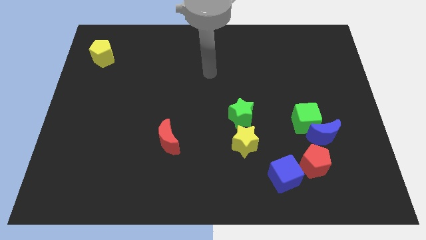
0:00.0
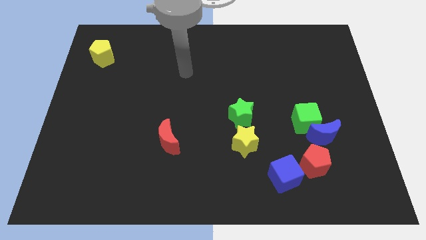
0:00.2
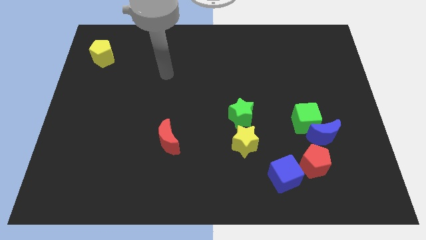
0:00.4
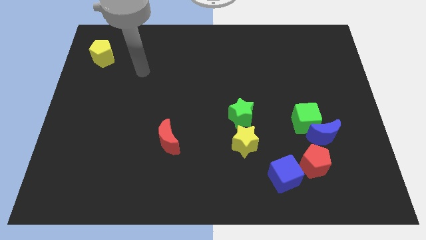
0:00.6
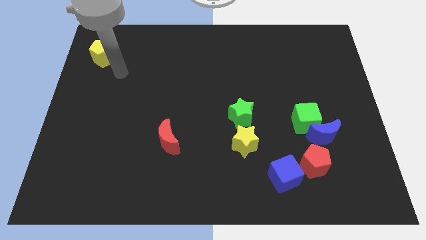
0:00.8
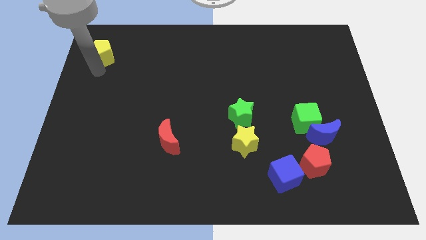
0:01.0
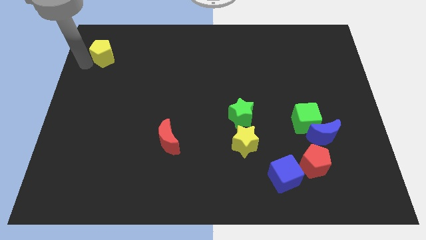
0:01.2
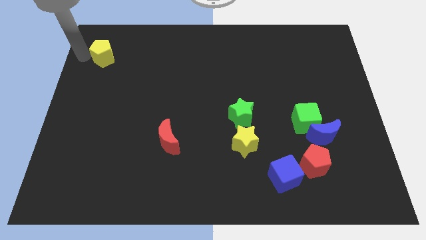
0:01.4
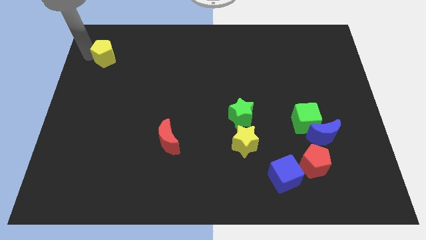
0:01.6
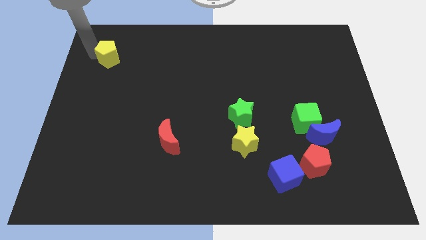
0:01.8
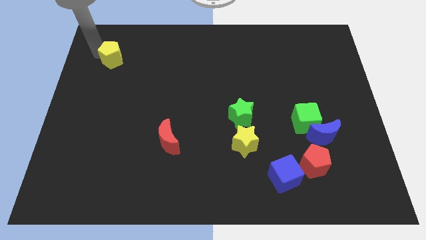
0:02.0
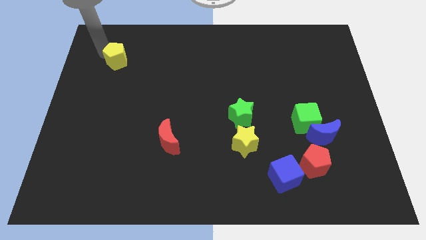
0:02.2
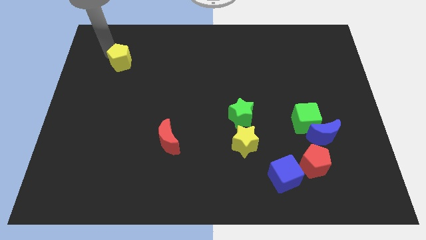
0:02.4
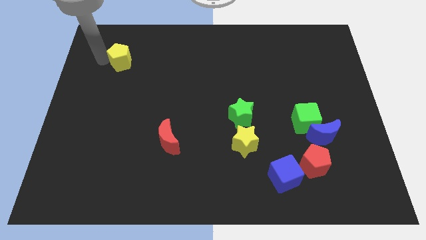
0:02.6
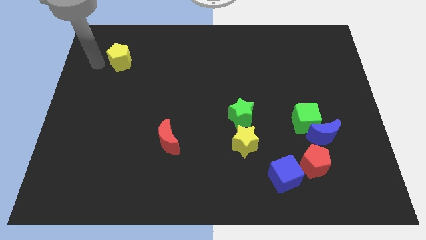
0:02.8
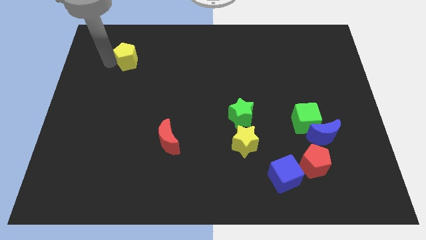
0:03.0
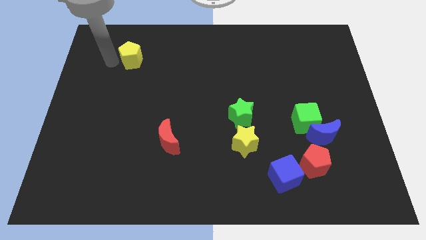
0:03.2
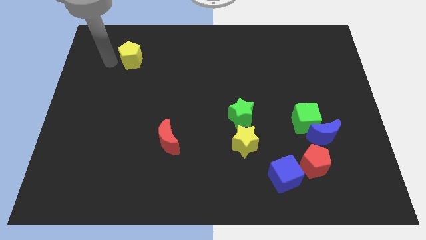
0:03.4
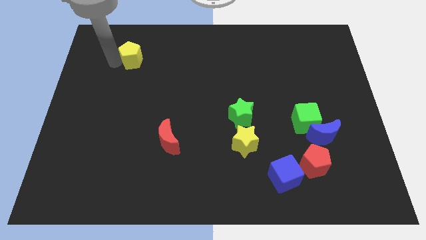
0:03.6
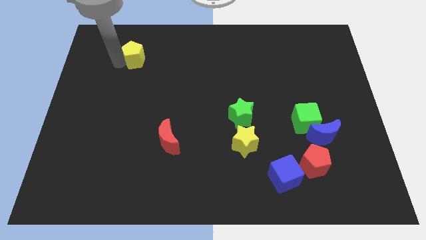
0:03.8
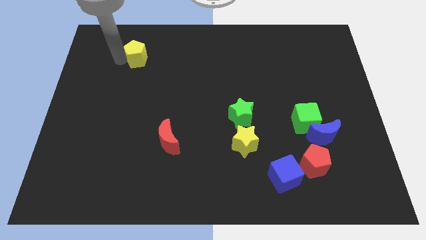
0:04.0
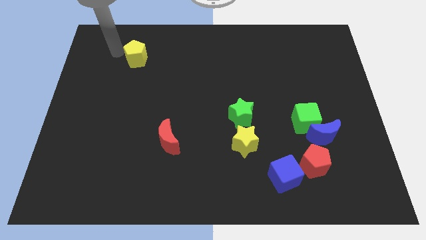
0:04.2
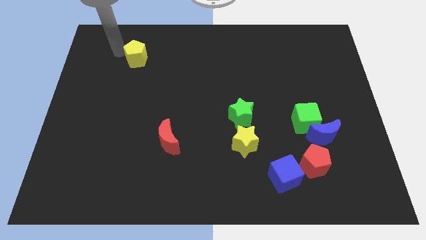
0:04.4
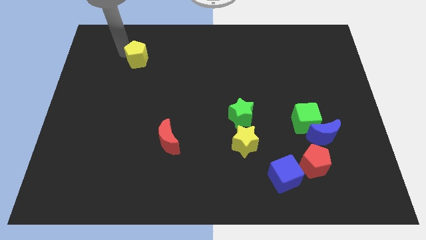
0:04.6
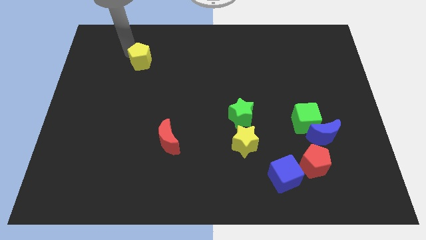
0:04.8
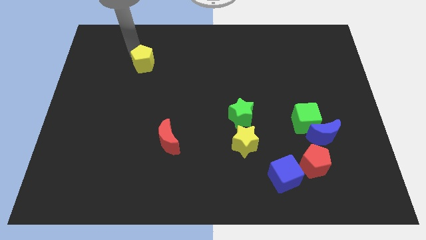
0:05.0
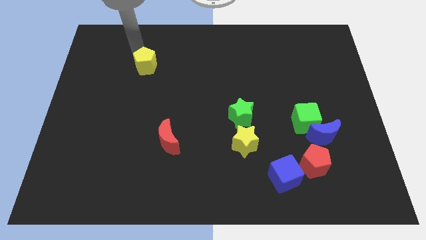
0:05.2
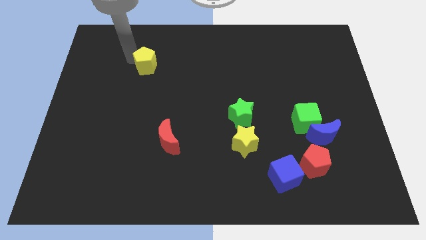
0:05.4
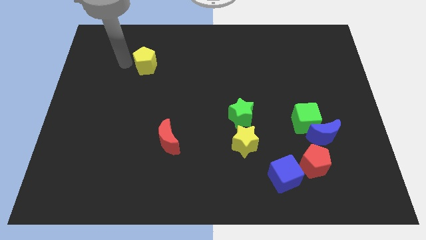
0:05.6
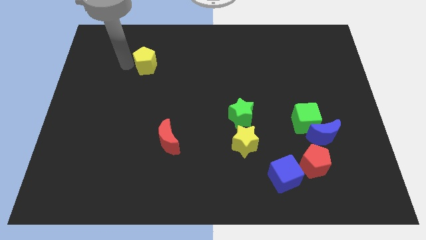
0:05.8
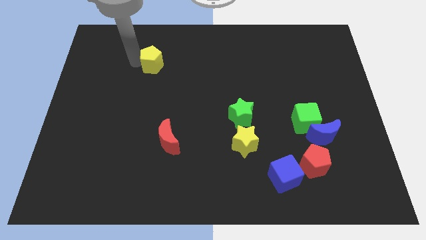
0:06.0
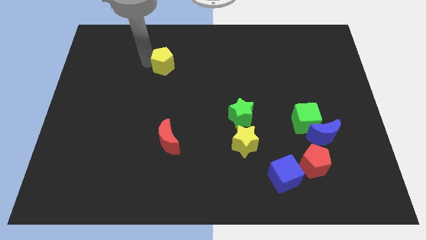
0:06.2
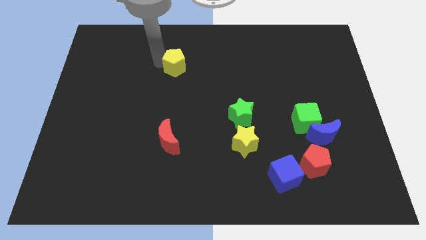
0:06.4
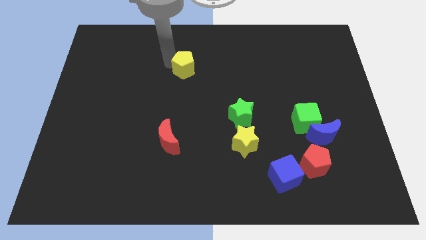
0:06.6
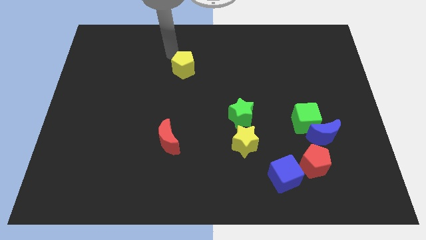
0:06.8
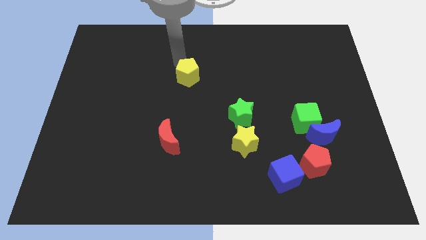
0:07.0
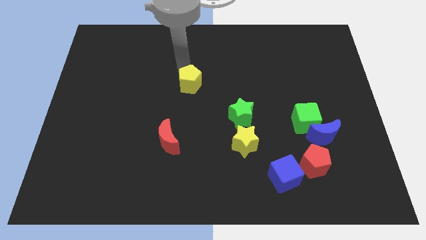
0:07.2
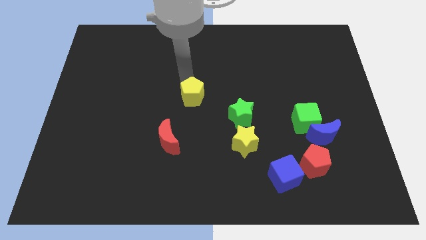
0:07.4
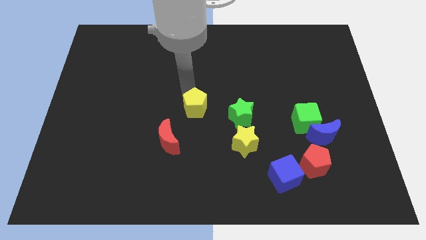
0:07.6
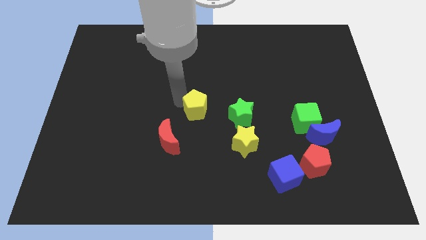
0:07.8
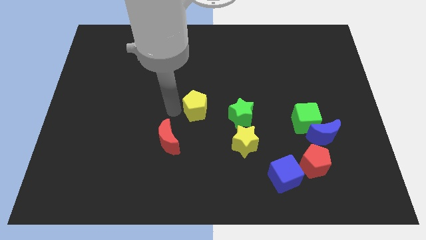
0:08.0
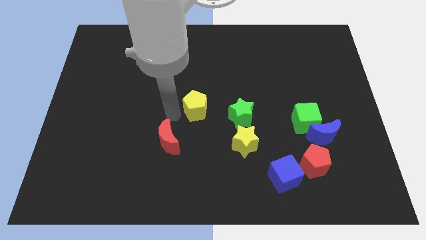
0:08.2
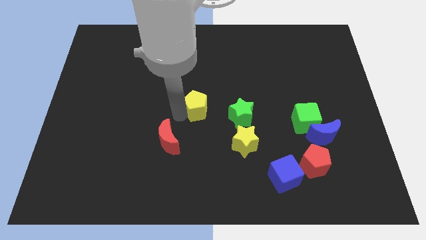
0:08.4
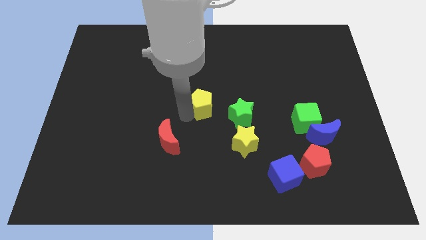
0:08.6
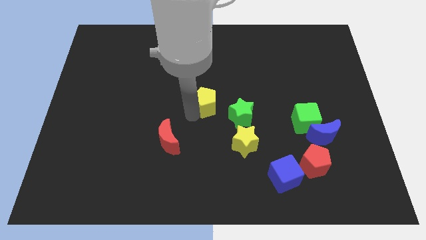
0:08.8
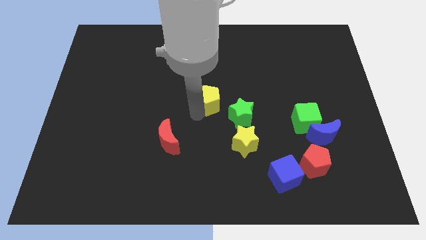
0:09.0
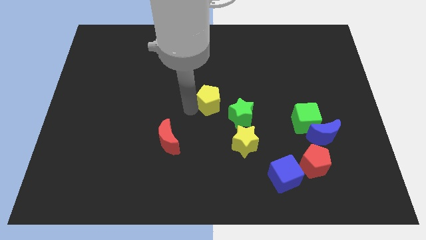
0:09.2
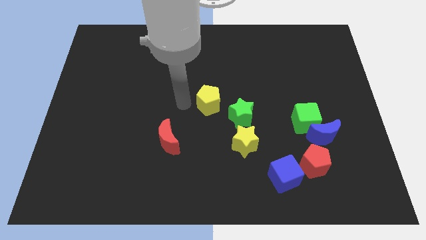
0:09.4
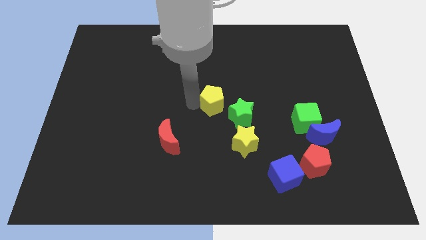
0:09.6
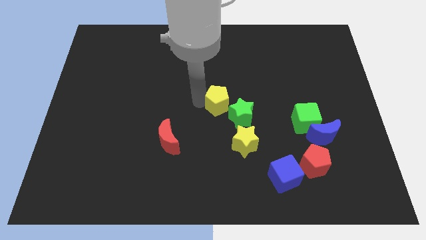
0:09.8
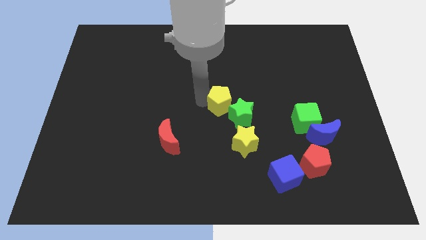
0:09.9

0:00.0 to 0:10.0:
push the yellow pentagon to the green star

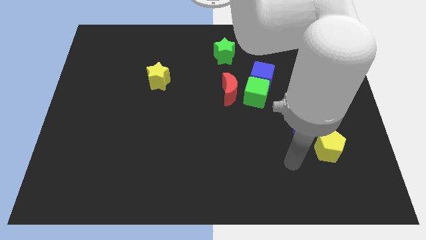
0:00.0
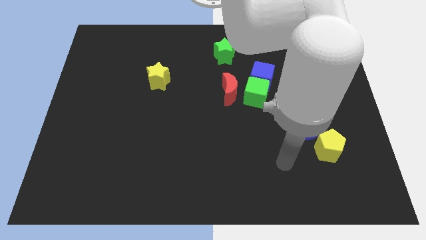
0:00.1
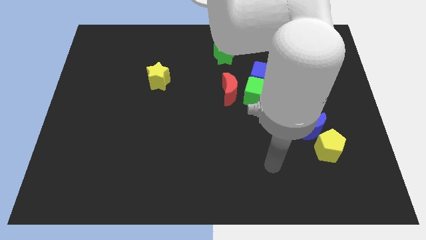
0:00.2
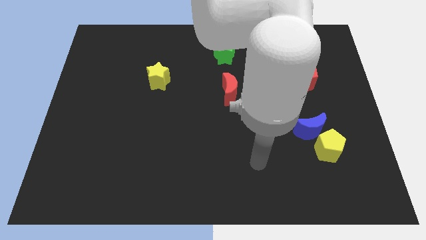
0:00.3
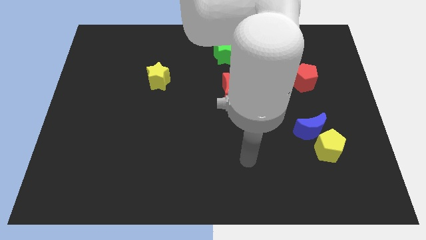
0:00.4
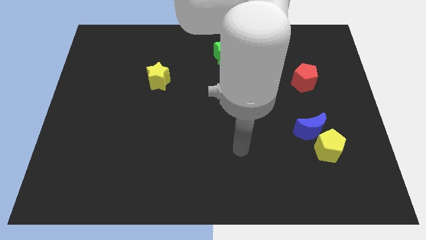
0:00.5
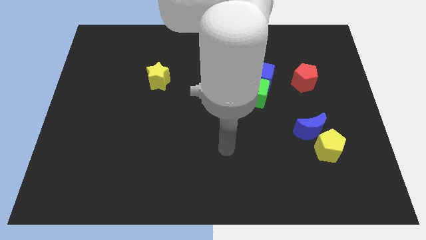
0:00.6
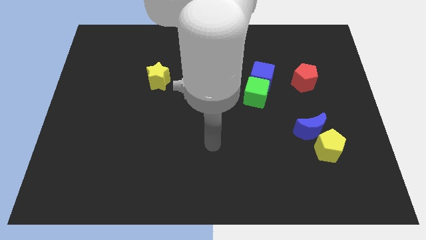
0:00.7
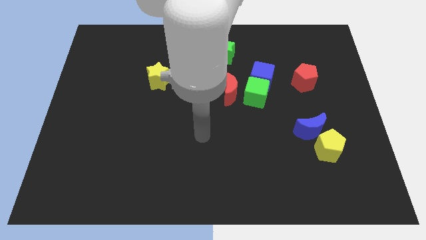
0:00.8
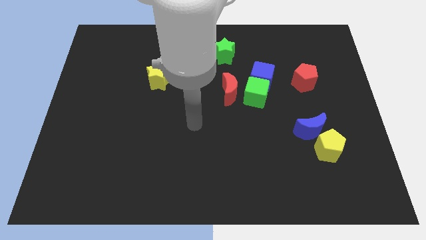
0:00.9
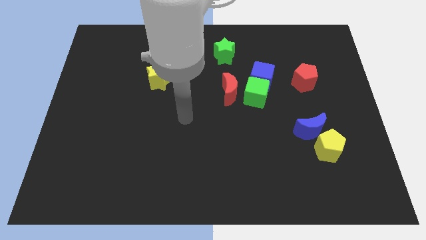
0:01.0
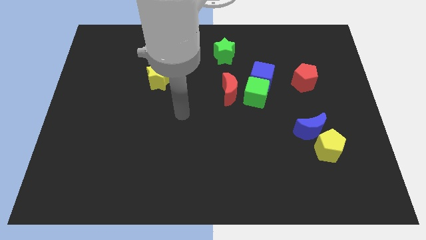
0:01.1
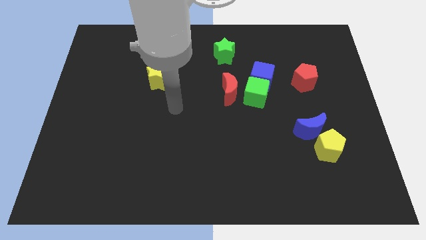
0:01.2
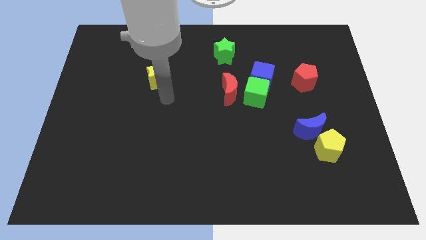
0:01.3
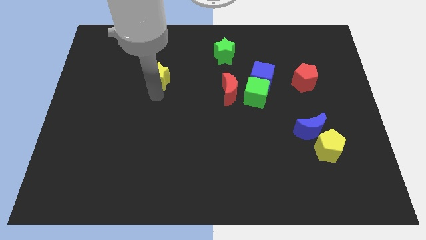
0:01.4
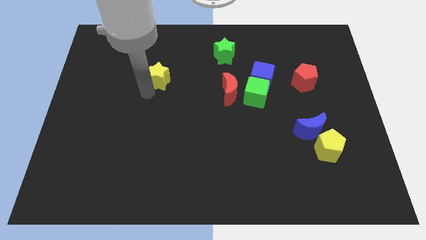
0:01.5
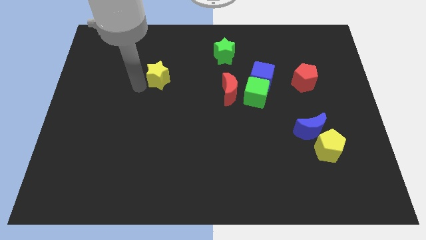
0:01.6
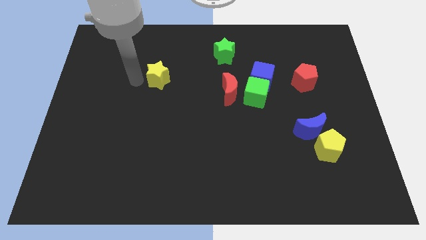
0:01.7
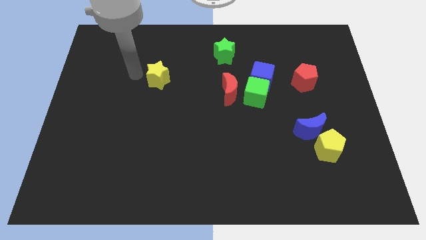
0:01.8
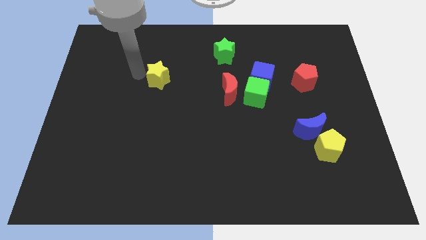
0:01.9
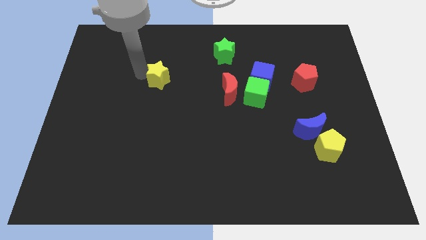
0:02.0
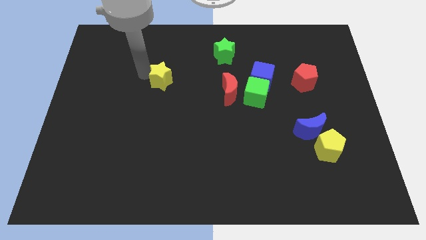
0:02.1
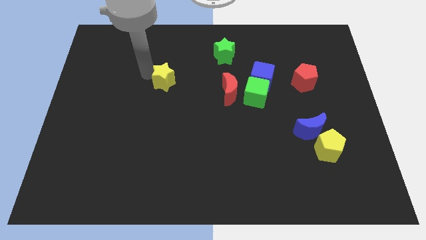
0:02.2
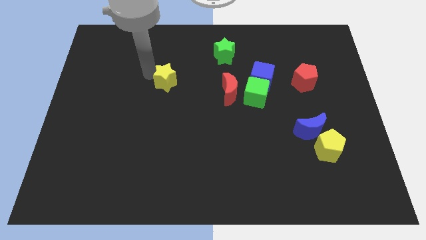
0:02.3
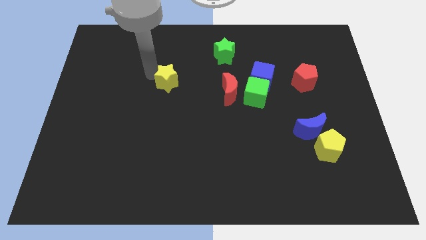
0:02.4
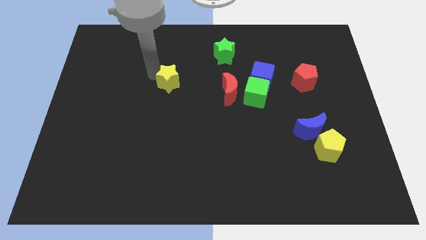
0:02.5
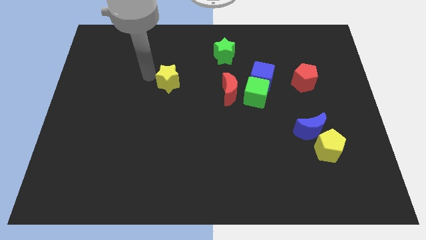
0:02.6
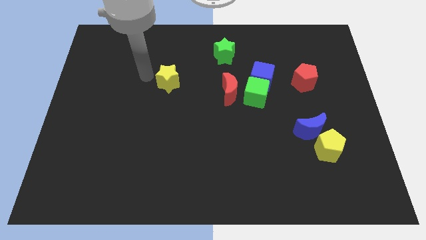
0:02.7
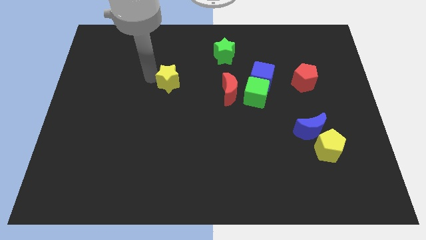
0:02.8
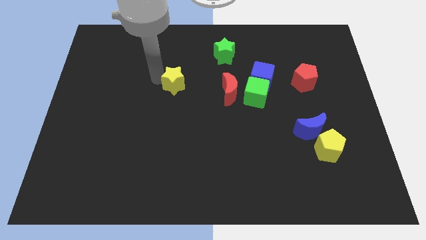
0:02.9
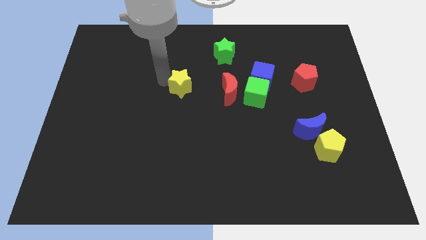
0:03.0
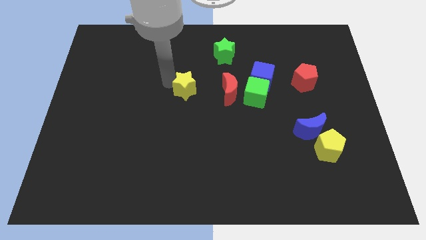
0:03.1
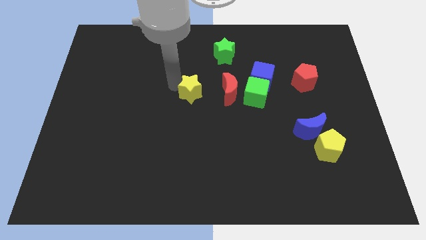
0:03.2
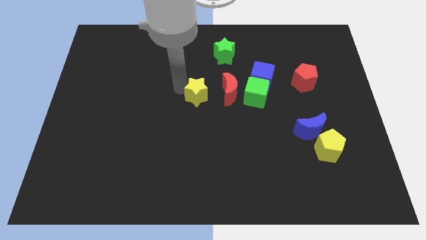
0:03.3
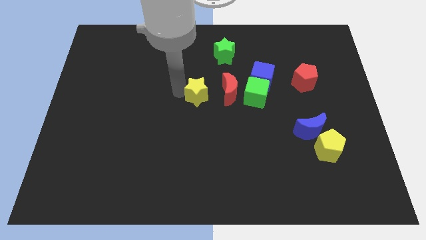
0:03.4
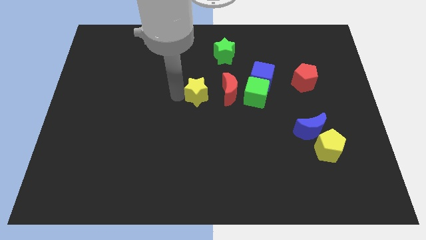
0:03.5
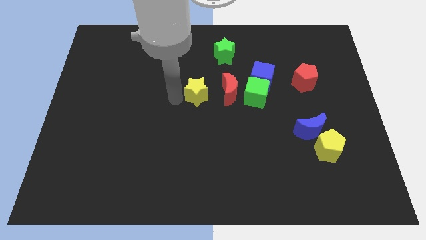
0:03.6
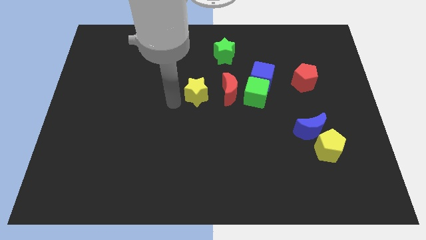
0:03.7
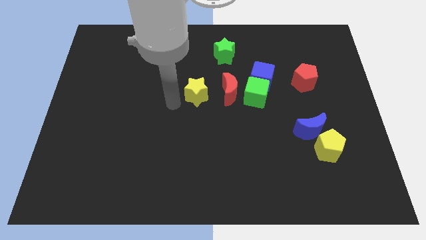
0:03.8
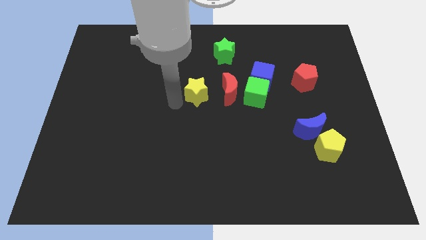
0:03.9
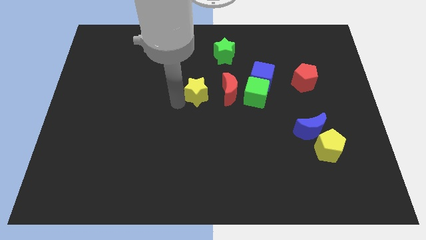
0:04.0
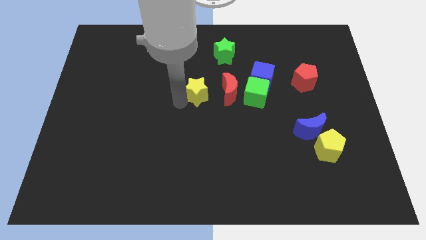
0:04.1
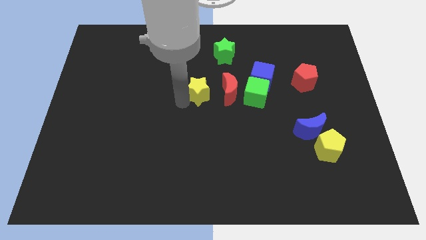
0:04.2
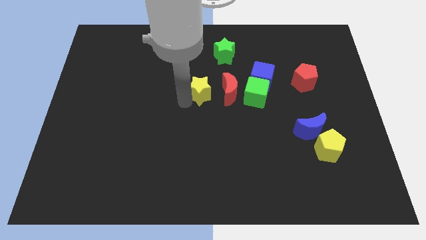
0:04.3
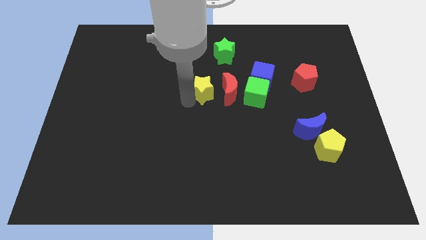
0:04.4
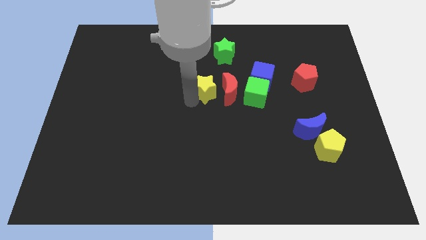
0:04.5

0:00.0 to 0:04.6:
slide the yellow star to the red moon
